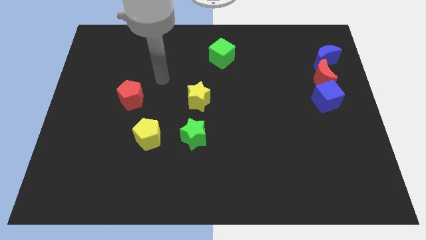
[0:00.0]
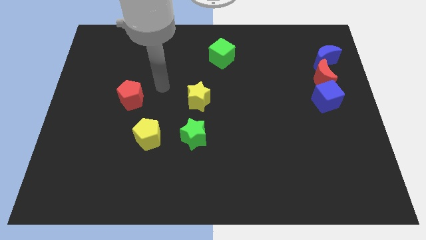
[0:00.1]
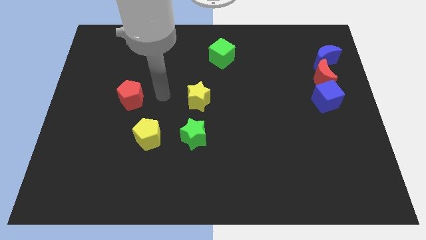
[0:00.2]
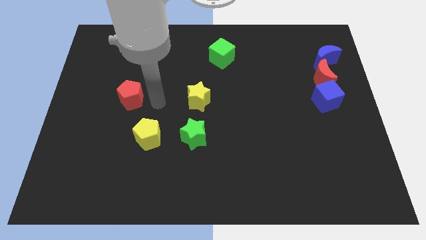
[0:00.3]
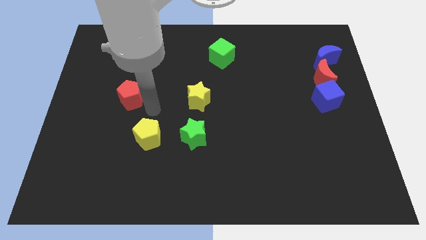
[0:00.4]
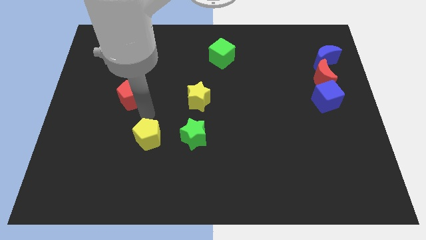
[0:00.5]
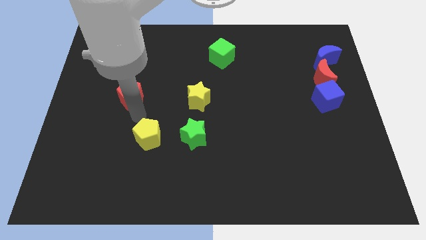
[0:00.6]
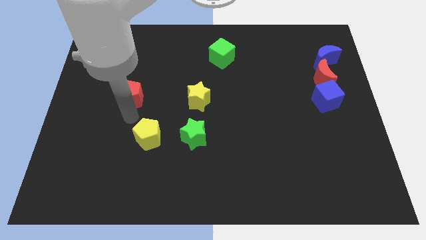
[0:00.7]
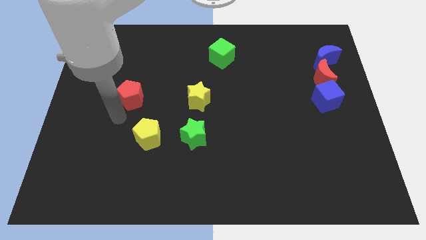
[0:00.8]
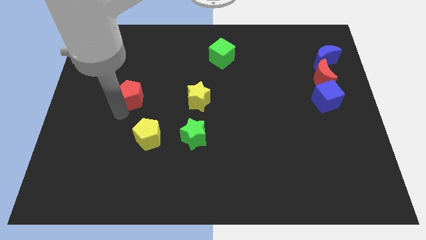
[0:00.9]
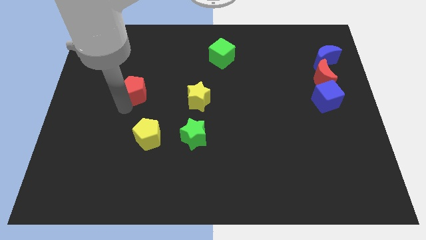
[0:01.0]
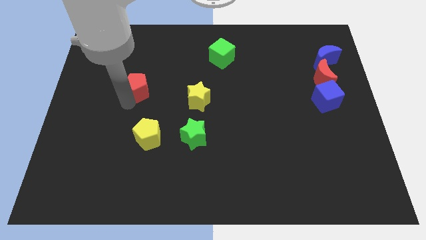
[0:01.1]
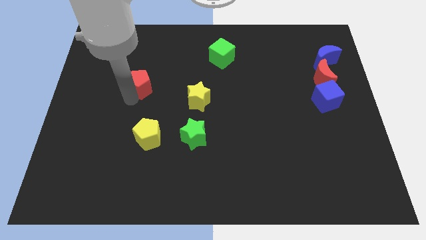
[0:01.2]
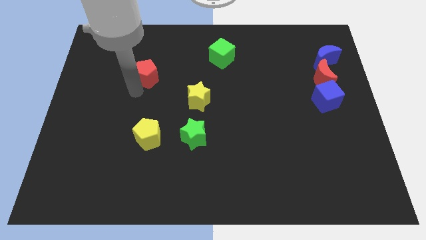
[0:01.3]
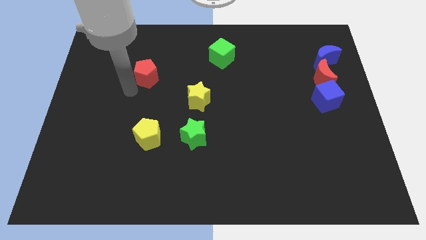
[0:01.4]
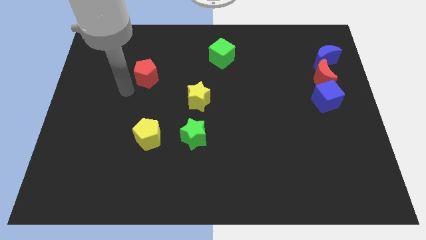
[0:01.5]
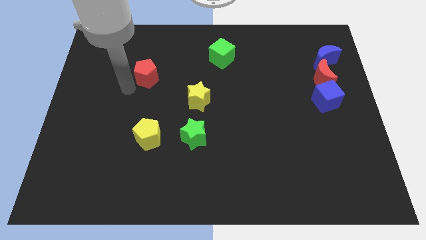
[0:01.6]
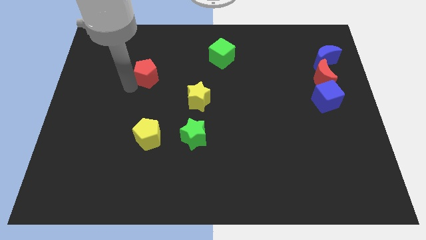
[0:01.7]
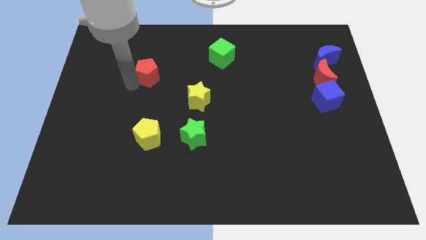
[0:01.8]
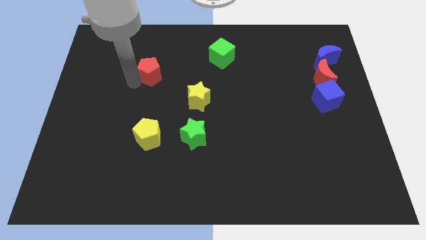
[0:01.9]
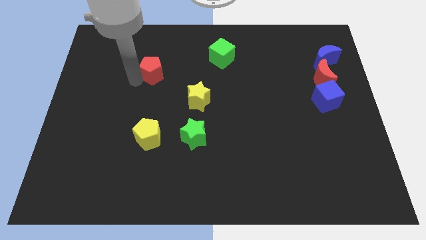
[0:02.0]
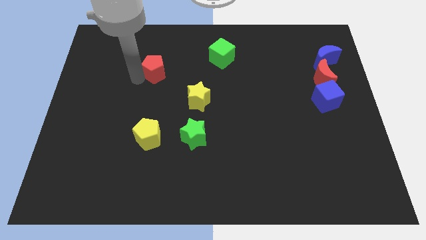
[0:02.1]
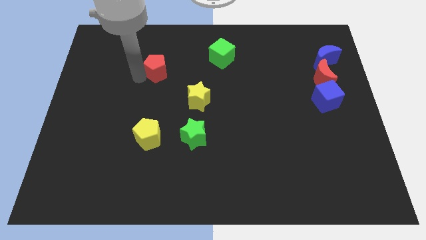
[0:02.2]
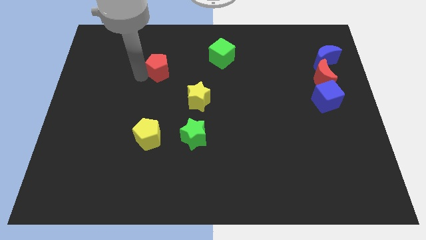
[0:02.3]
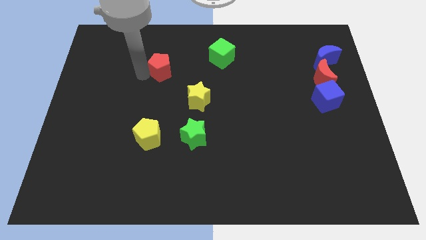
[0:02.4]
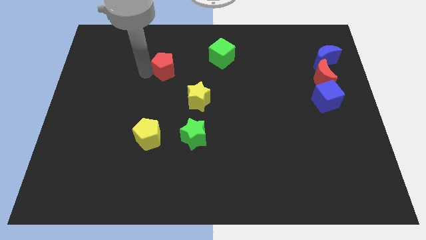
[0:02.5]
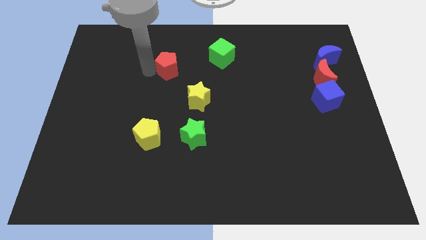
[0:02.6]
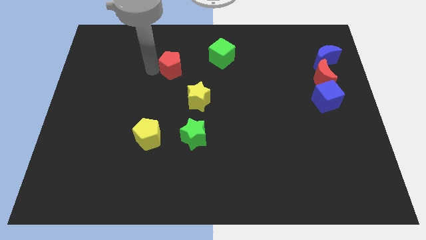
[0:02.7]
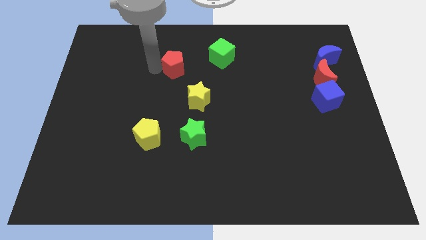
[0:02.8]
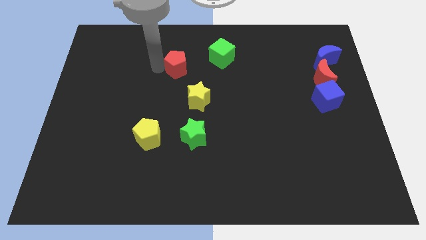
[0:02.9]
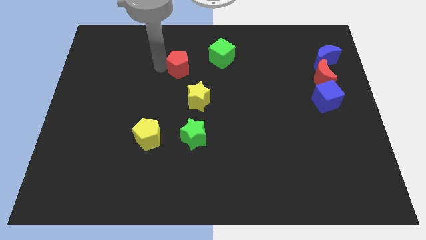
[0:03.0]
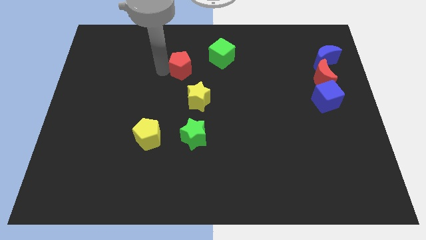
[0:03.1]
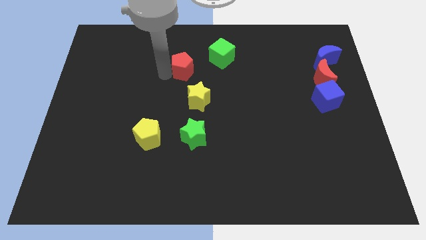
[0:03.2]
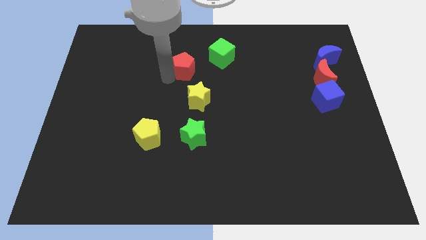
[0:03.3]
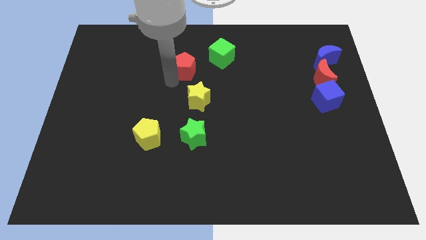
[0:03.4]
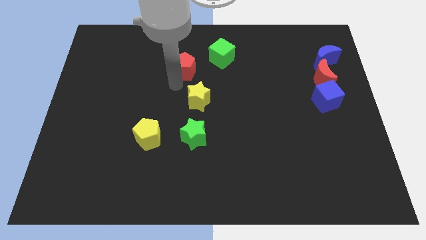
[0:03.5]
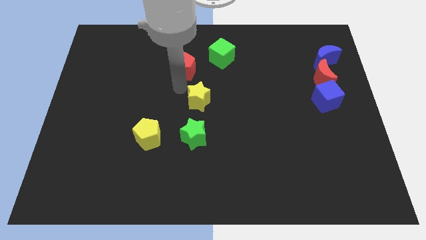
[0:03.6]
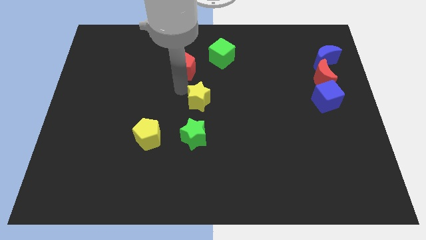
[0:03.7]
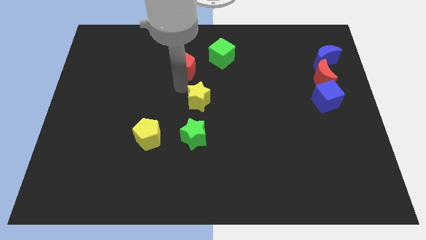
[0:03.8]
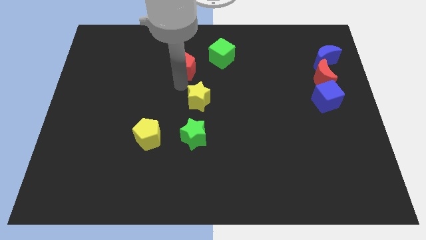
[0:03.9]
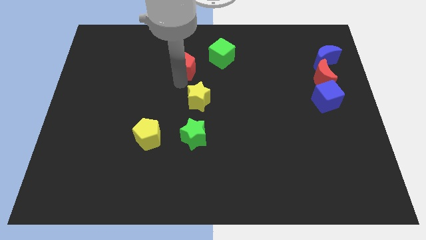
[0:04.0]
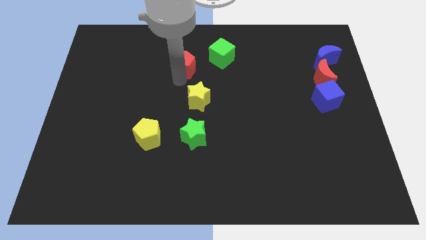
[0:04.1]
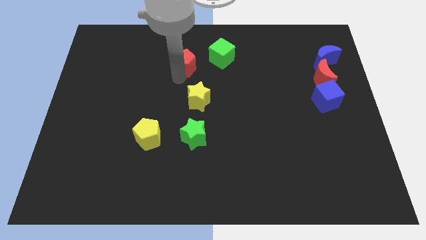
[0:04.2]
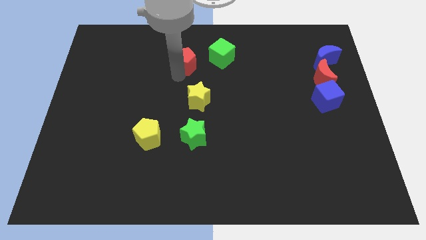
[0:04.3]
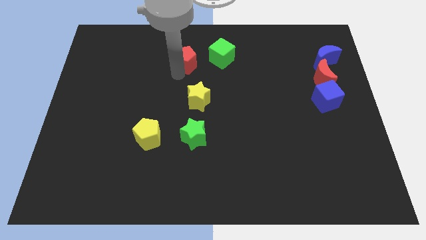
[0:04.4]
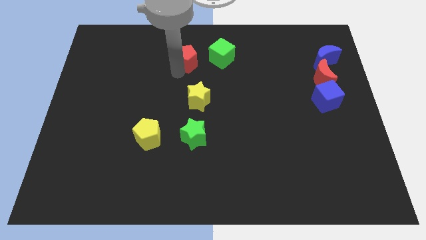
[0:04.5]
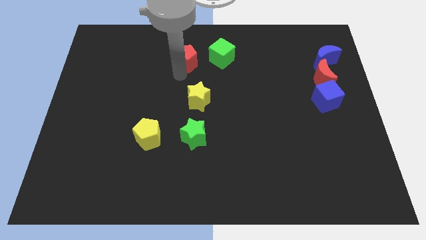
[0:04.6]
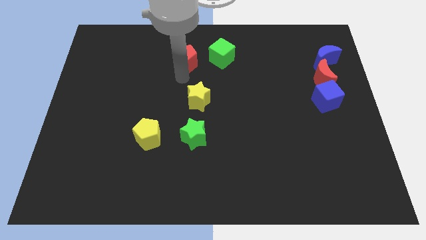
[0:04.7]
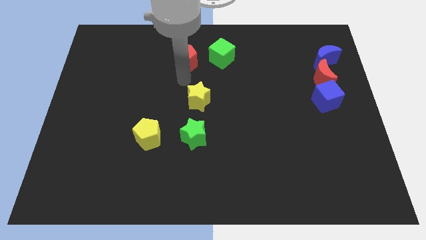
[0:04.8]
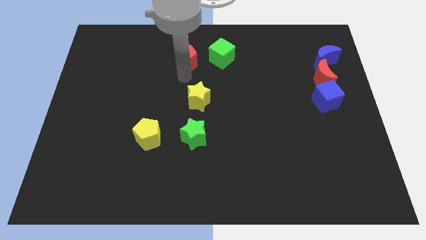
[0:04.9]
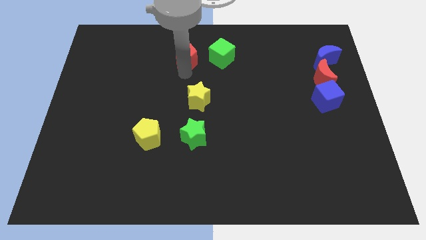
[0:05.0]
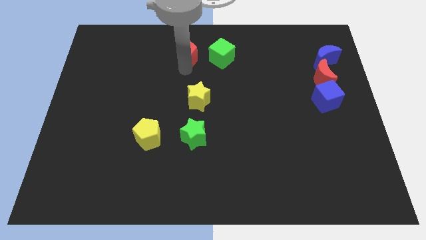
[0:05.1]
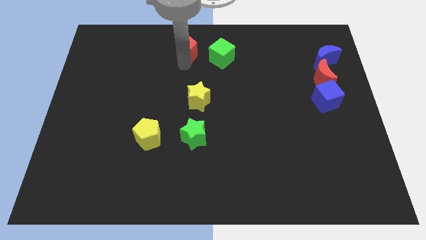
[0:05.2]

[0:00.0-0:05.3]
put the red pentagon to the top side

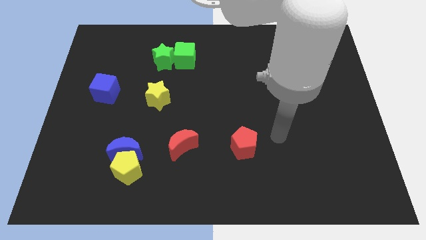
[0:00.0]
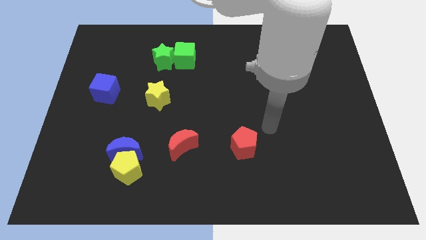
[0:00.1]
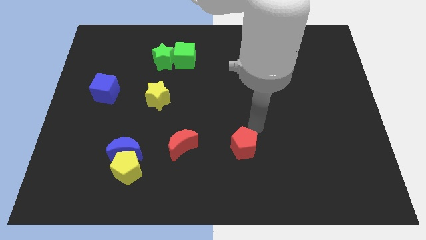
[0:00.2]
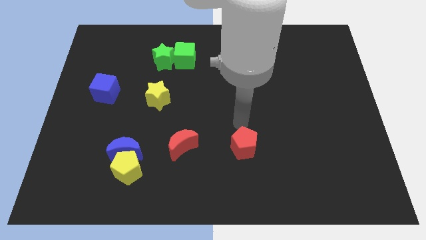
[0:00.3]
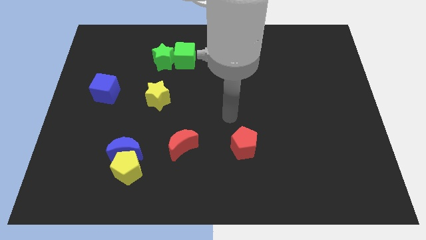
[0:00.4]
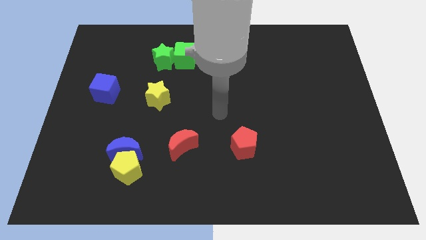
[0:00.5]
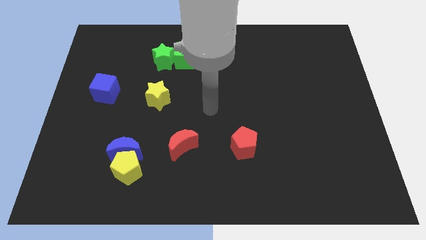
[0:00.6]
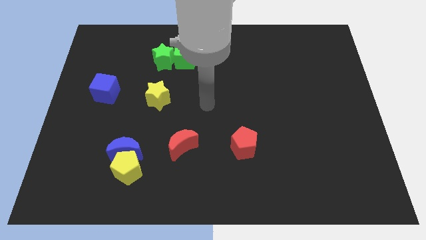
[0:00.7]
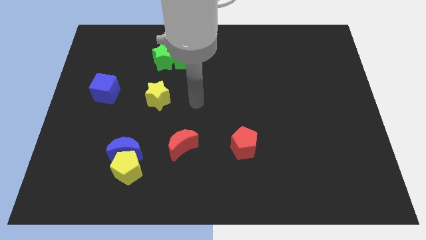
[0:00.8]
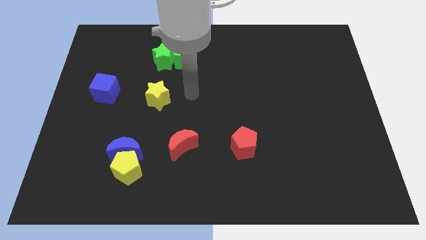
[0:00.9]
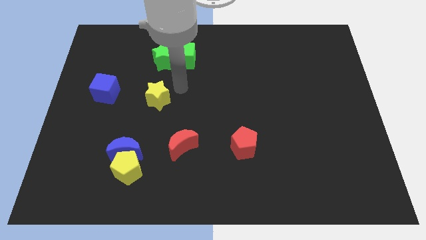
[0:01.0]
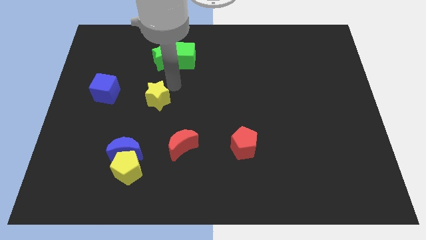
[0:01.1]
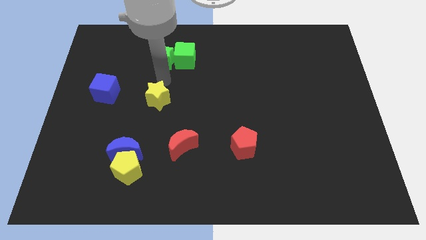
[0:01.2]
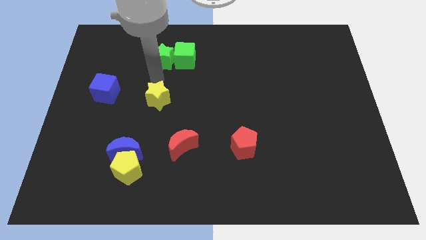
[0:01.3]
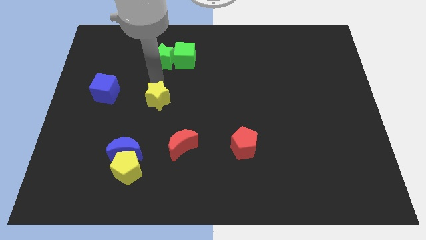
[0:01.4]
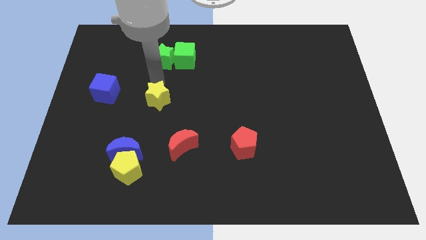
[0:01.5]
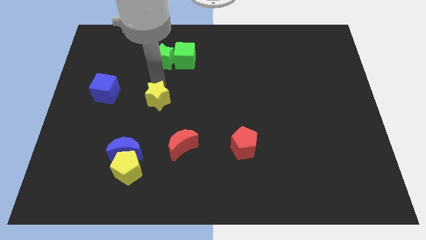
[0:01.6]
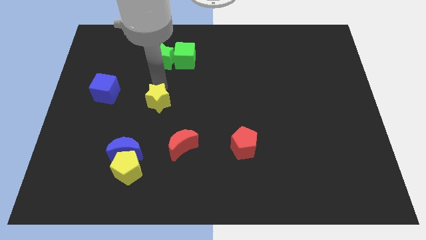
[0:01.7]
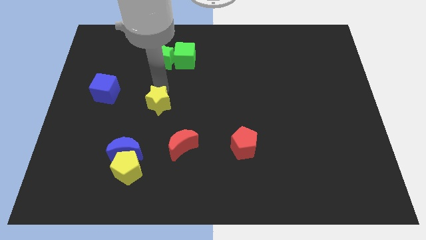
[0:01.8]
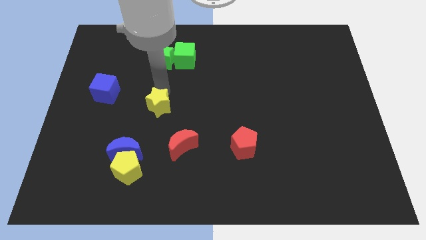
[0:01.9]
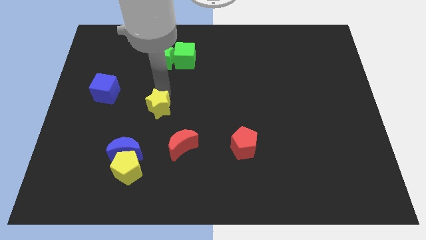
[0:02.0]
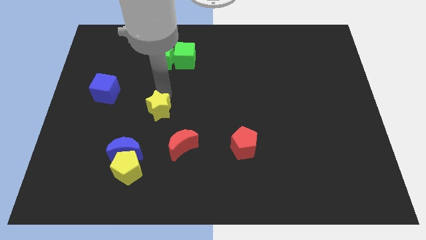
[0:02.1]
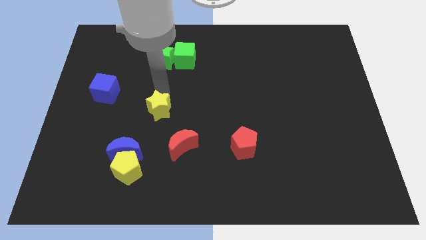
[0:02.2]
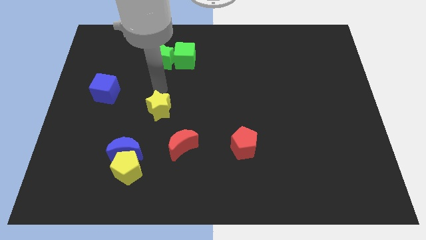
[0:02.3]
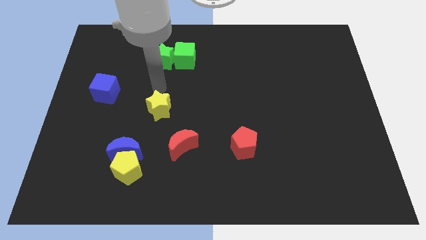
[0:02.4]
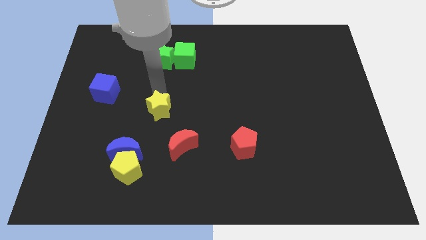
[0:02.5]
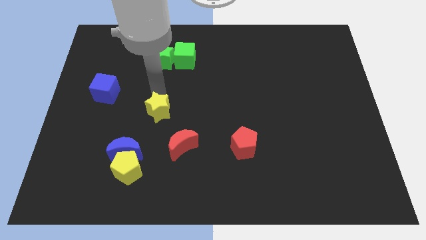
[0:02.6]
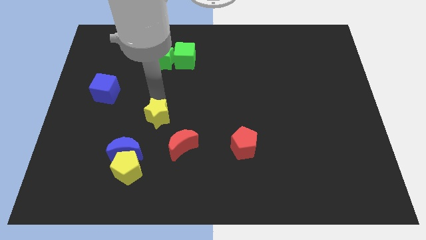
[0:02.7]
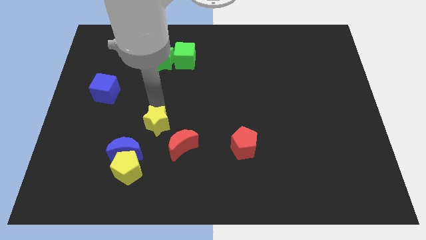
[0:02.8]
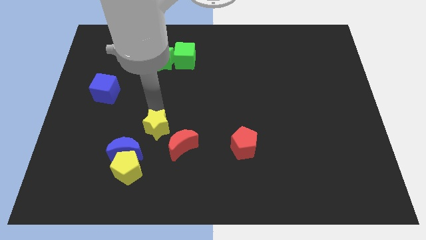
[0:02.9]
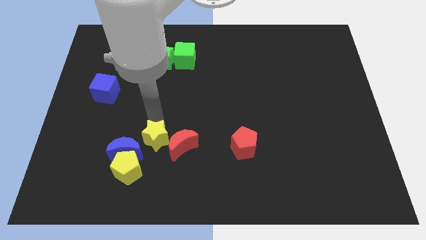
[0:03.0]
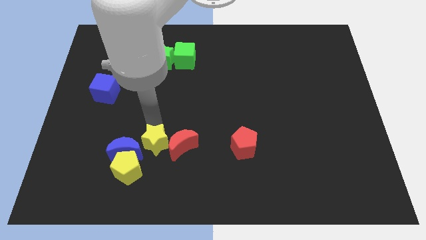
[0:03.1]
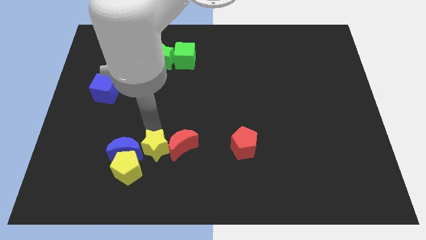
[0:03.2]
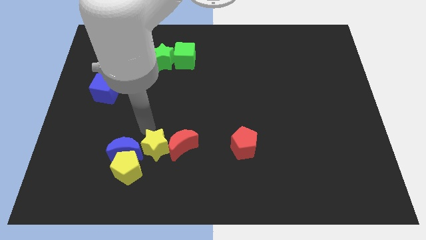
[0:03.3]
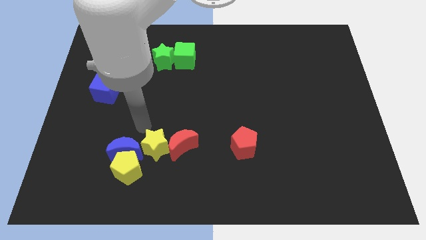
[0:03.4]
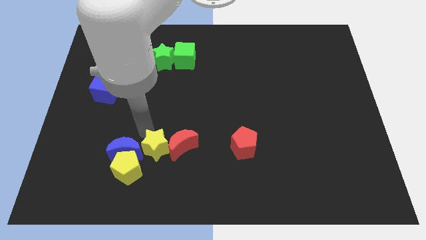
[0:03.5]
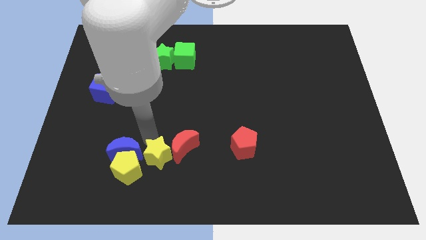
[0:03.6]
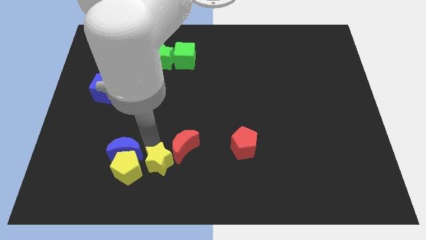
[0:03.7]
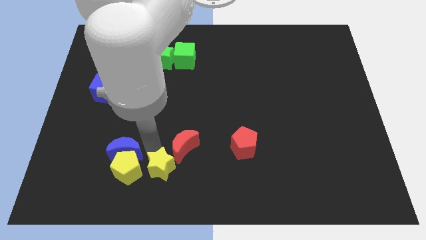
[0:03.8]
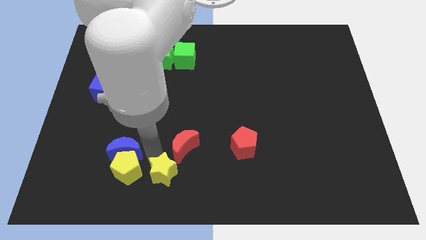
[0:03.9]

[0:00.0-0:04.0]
move the yellow star to the bottom side
